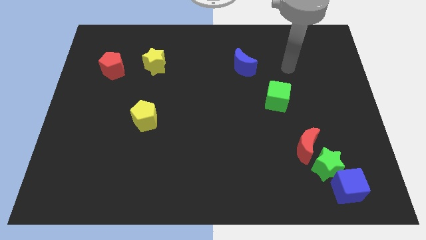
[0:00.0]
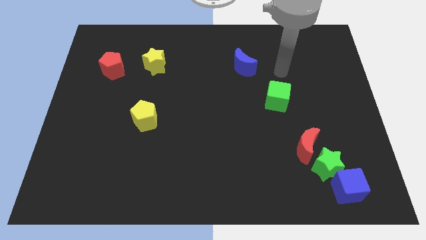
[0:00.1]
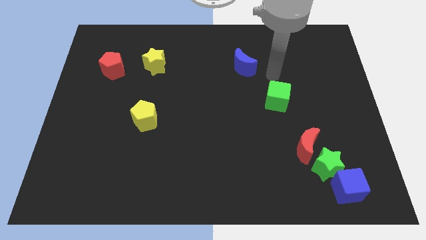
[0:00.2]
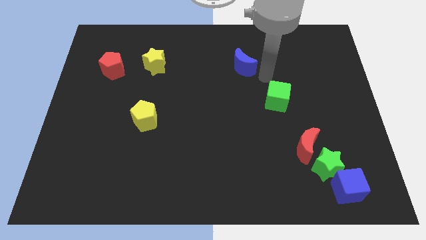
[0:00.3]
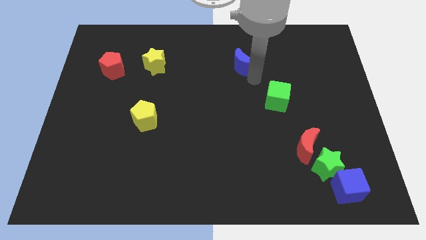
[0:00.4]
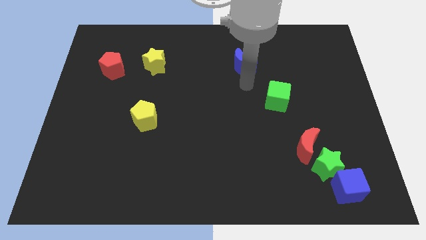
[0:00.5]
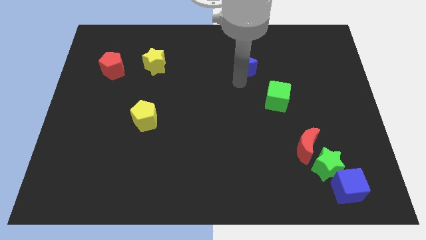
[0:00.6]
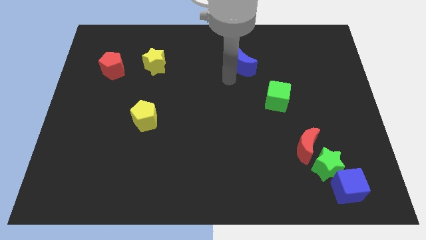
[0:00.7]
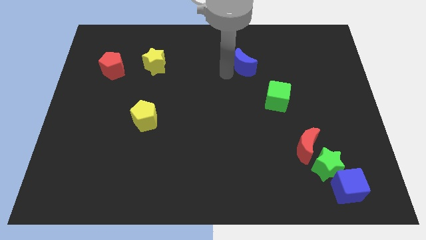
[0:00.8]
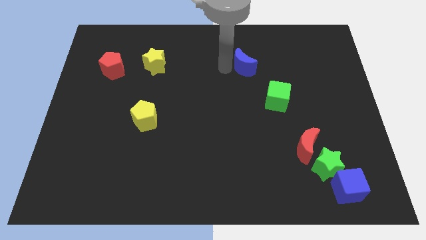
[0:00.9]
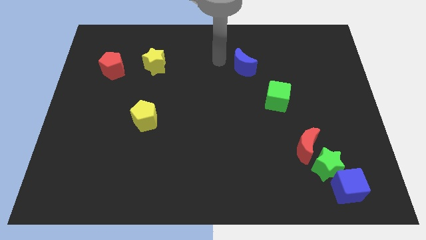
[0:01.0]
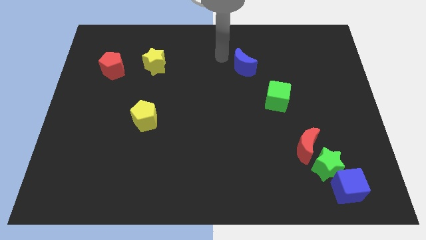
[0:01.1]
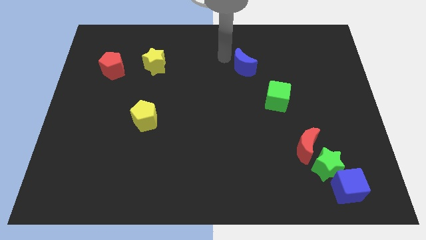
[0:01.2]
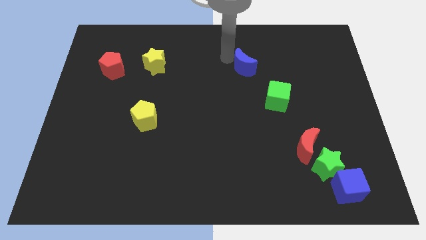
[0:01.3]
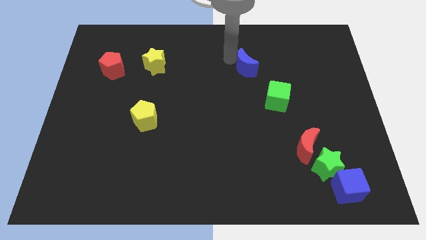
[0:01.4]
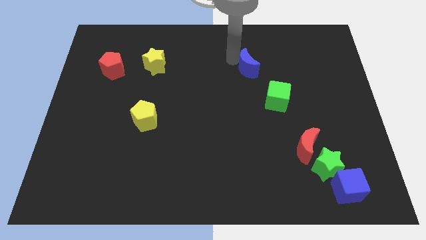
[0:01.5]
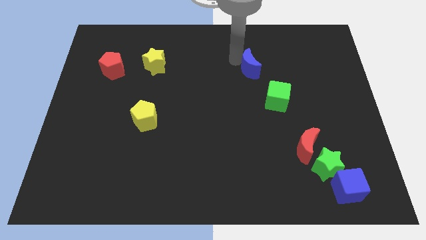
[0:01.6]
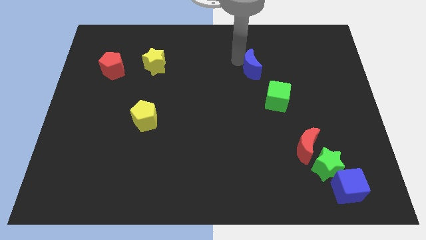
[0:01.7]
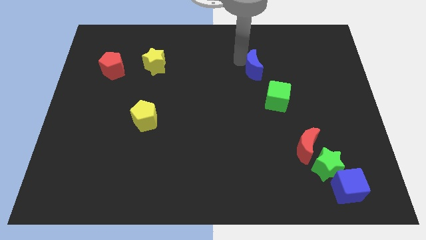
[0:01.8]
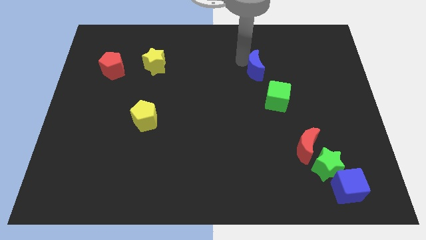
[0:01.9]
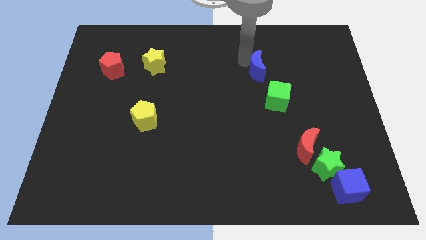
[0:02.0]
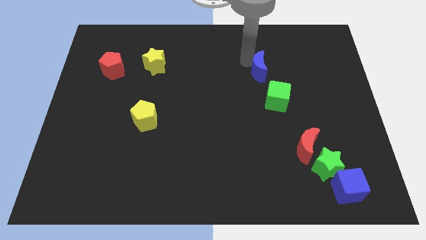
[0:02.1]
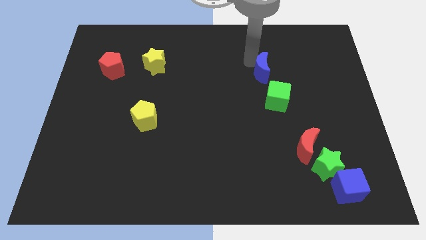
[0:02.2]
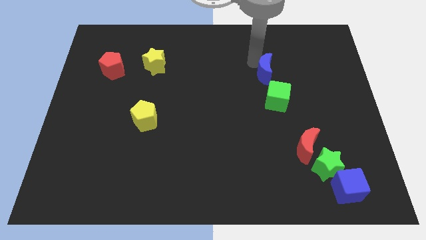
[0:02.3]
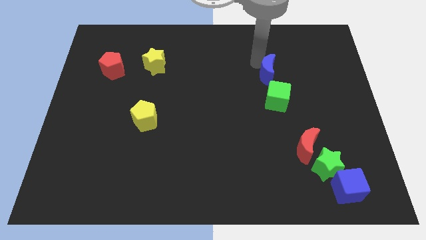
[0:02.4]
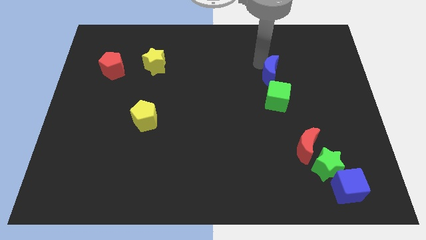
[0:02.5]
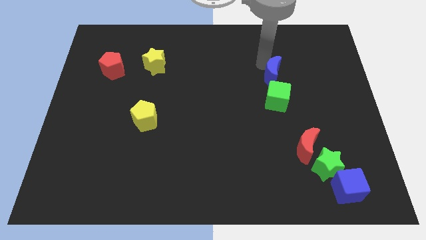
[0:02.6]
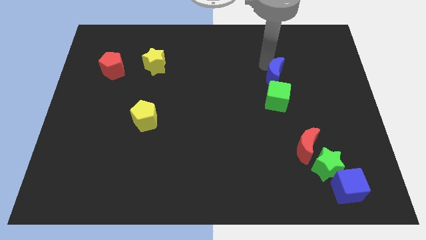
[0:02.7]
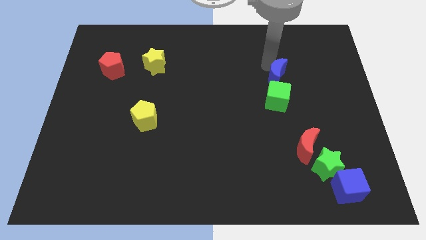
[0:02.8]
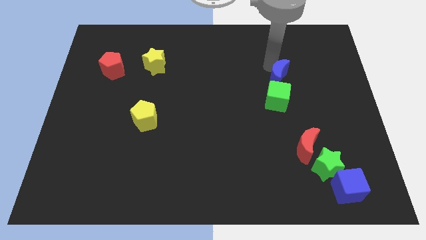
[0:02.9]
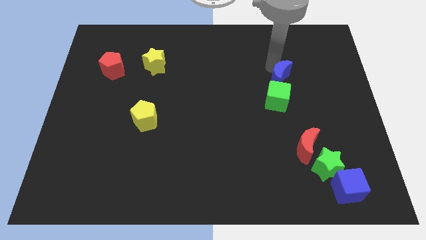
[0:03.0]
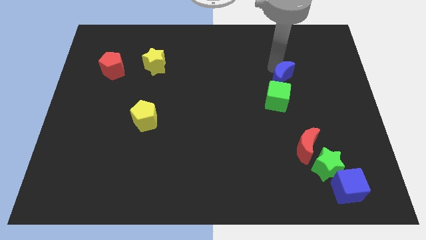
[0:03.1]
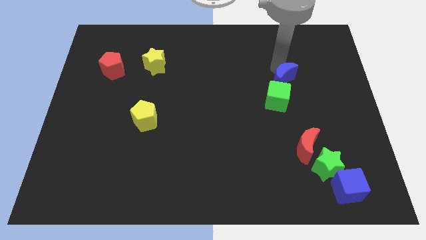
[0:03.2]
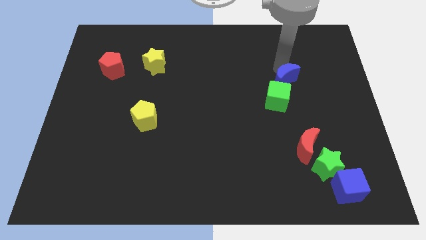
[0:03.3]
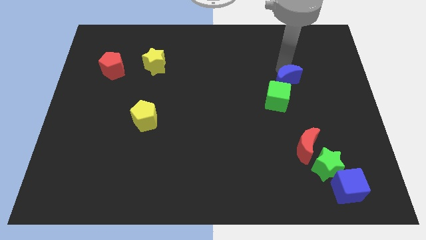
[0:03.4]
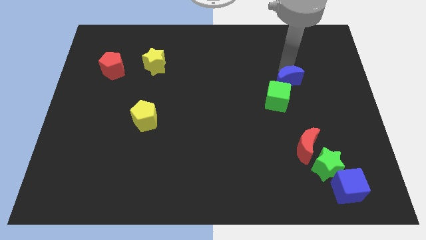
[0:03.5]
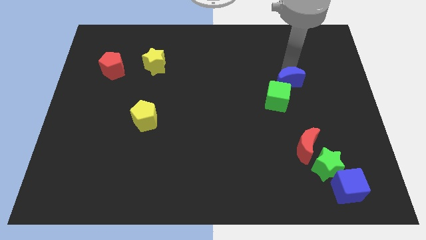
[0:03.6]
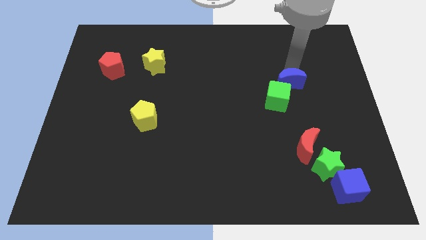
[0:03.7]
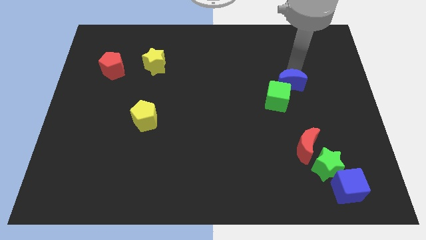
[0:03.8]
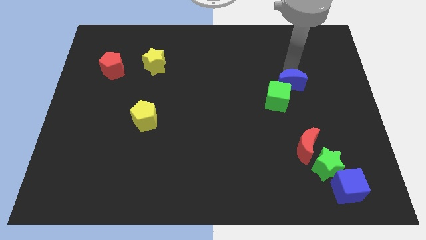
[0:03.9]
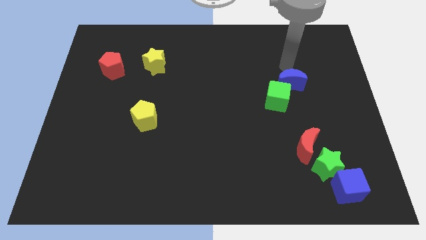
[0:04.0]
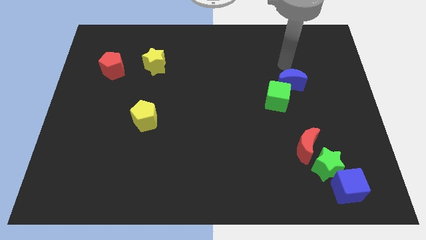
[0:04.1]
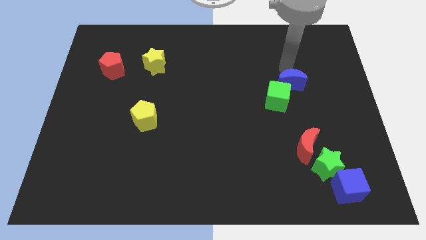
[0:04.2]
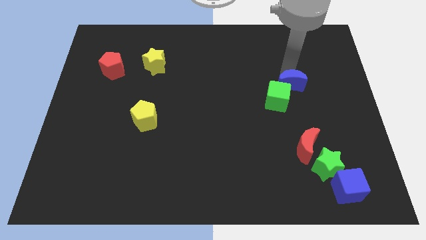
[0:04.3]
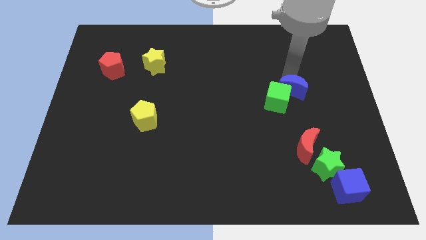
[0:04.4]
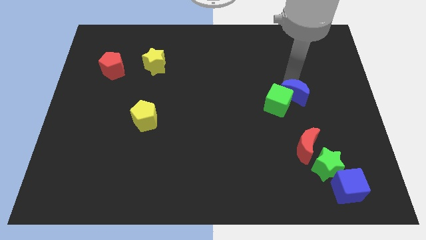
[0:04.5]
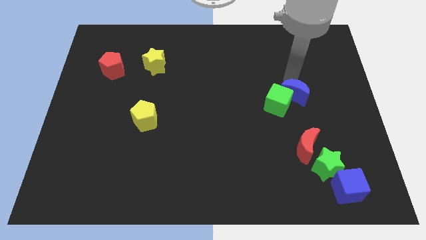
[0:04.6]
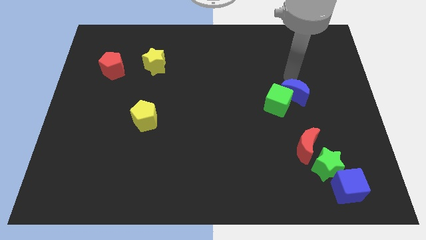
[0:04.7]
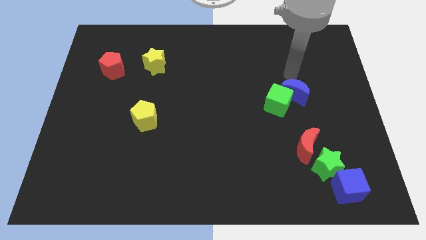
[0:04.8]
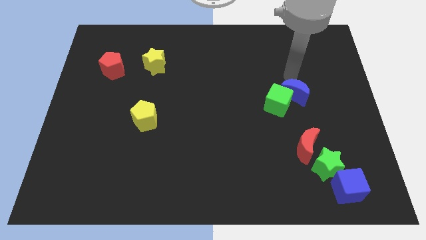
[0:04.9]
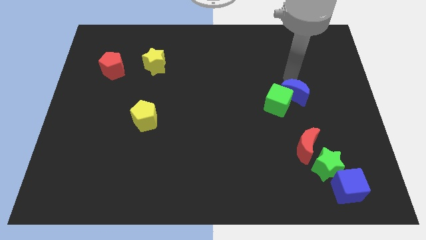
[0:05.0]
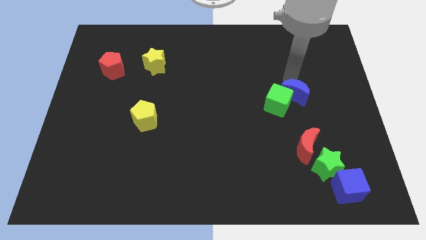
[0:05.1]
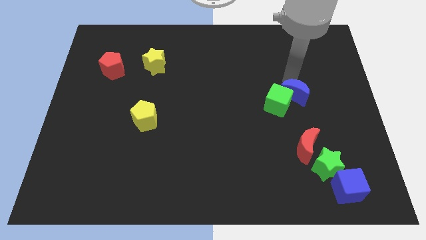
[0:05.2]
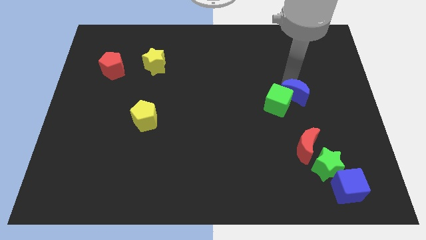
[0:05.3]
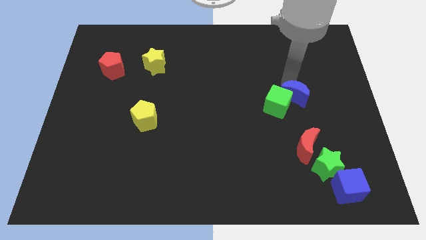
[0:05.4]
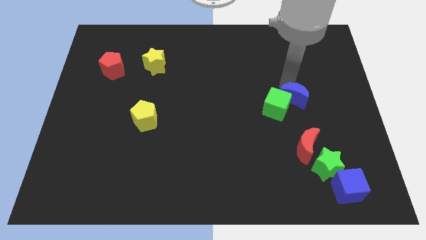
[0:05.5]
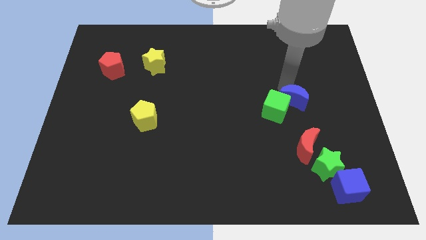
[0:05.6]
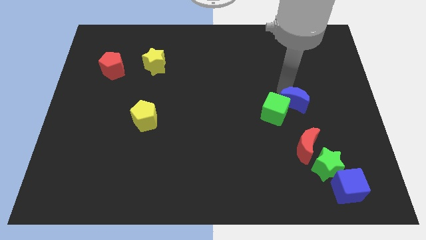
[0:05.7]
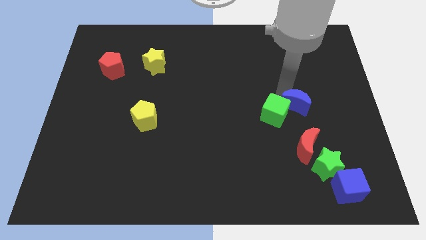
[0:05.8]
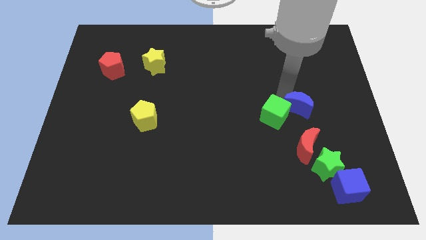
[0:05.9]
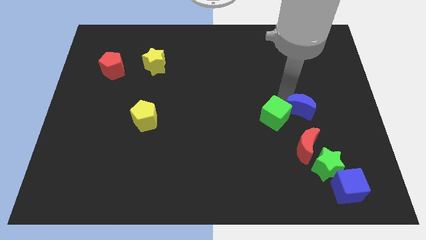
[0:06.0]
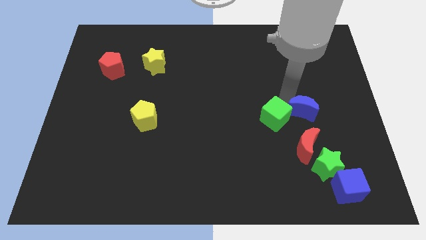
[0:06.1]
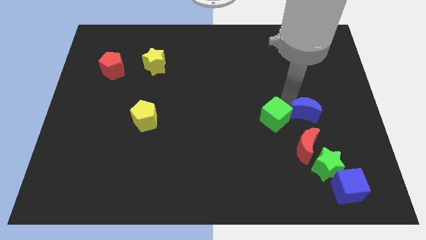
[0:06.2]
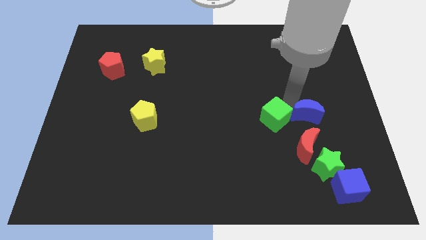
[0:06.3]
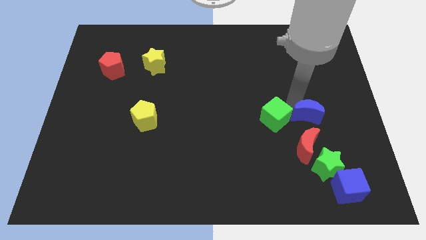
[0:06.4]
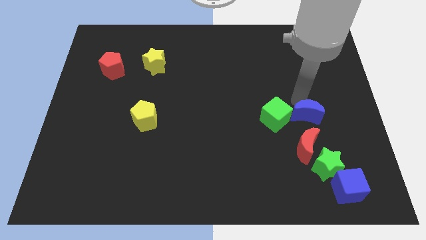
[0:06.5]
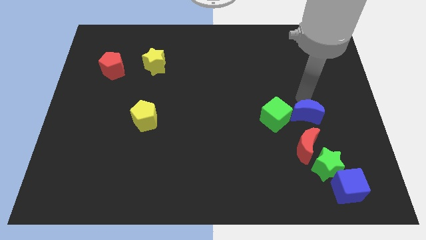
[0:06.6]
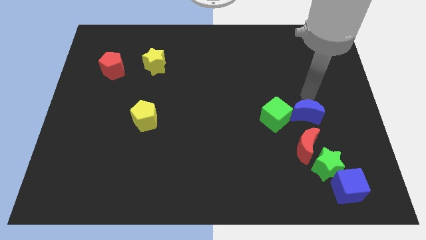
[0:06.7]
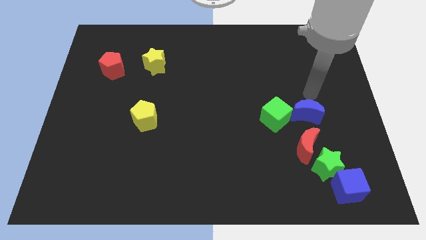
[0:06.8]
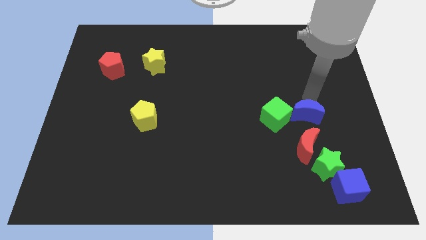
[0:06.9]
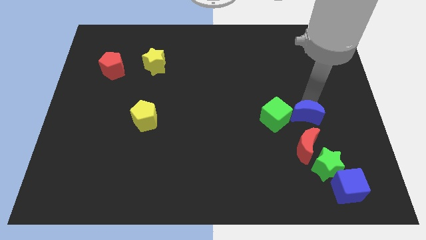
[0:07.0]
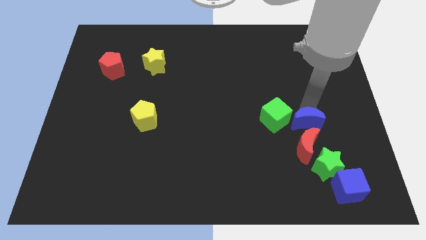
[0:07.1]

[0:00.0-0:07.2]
put the blue moon to the bottom right side of the green cube

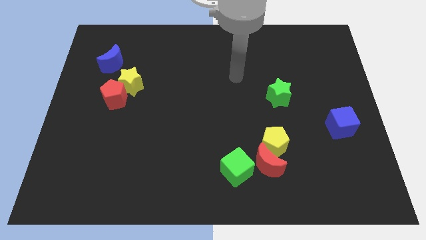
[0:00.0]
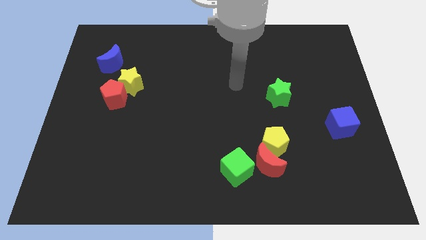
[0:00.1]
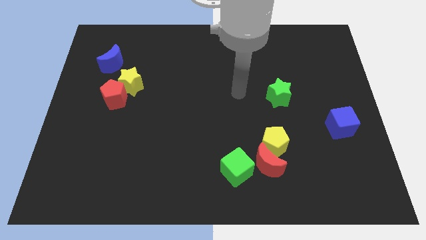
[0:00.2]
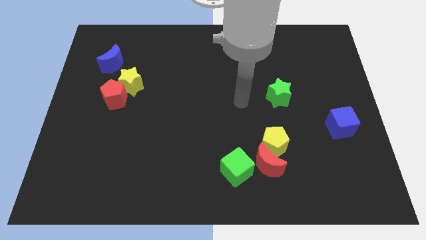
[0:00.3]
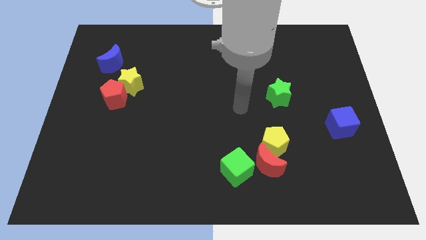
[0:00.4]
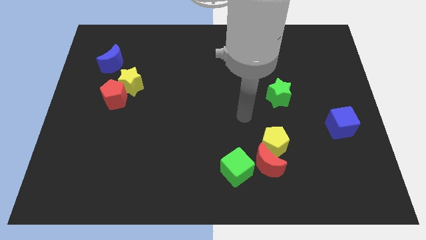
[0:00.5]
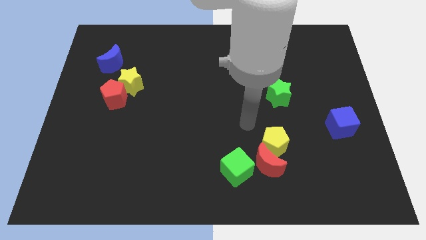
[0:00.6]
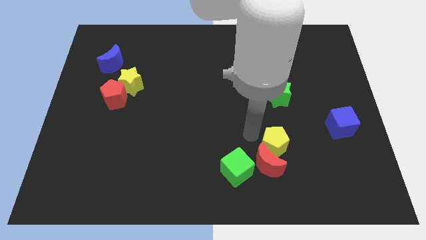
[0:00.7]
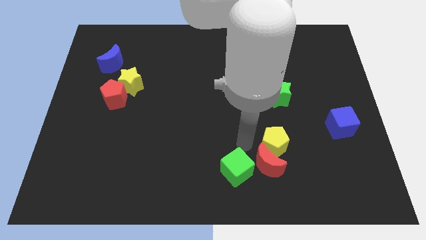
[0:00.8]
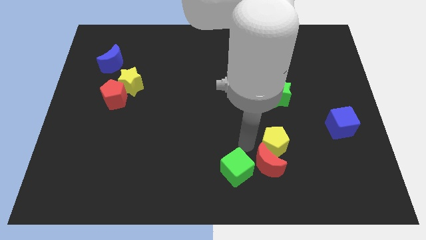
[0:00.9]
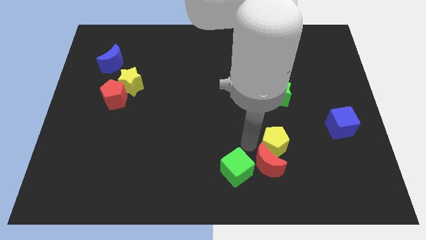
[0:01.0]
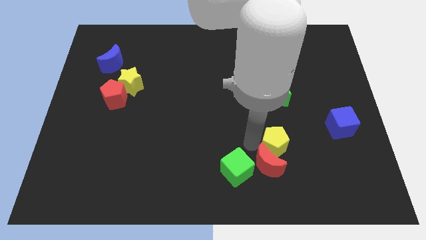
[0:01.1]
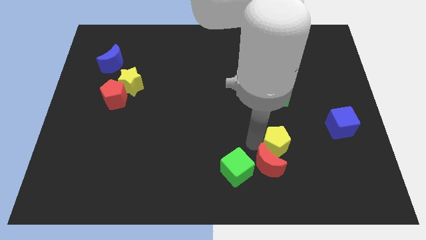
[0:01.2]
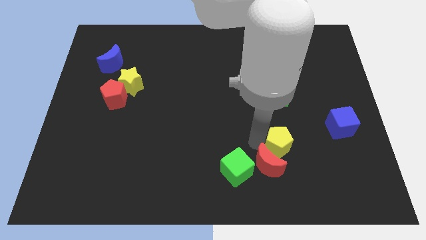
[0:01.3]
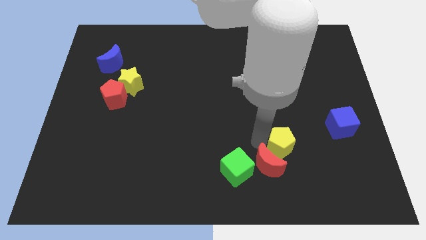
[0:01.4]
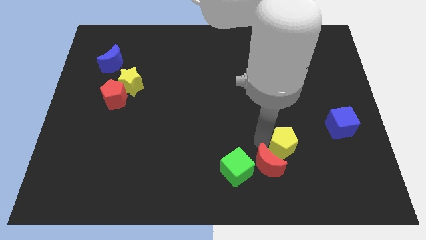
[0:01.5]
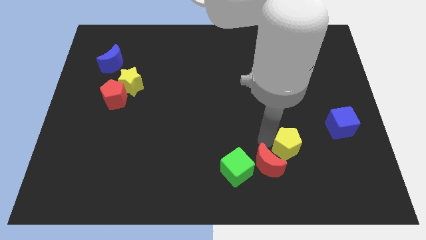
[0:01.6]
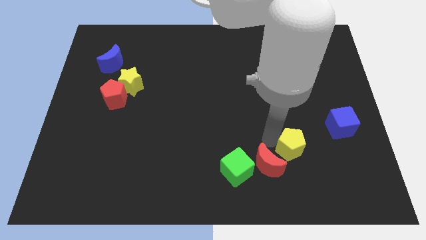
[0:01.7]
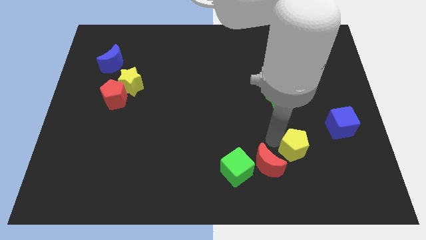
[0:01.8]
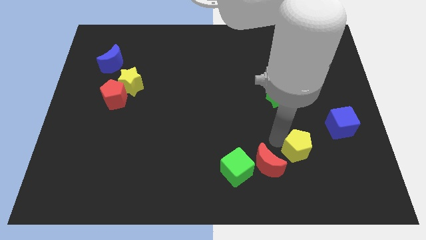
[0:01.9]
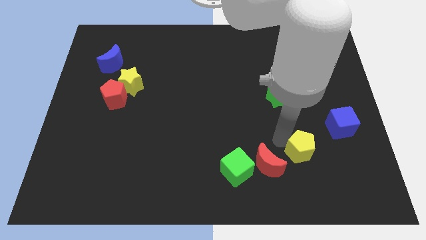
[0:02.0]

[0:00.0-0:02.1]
slide the yellow pentagon to the bottom left side of the blue cube
